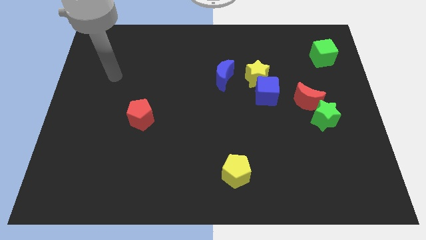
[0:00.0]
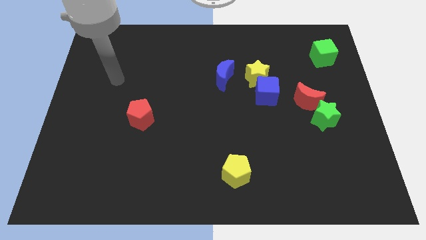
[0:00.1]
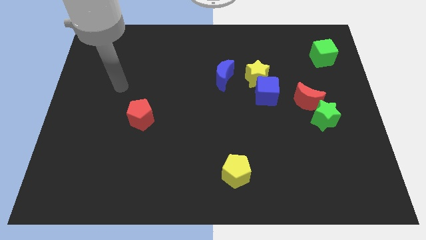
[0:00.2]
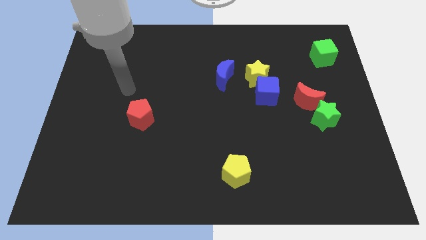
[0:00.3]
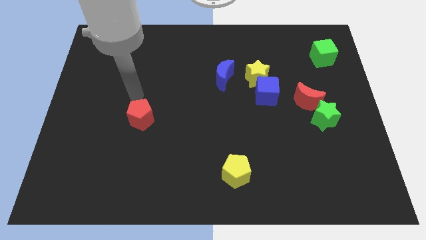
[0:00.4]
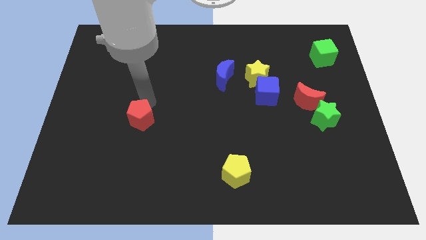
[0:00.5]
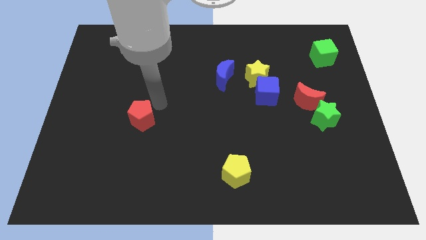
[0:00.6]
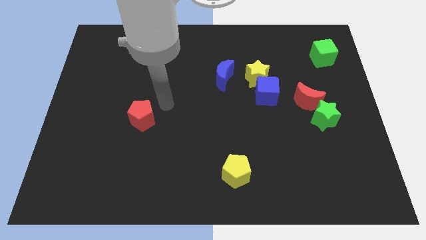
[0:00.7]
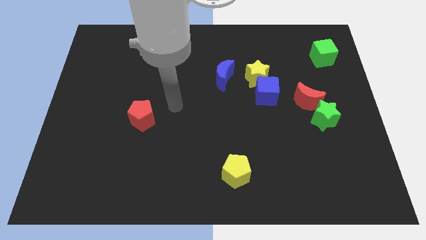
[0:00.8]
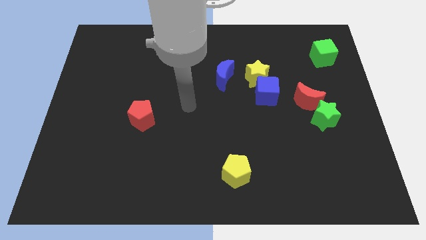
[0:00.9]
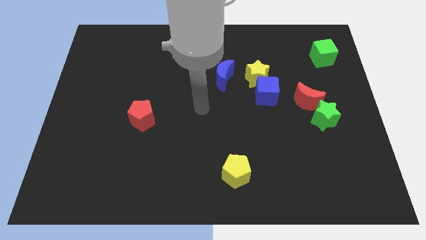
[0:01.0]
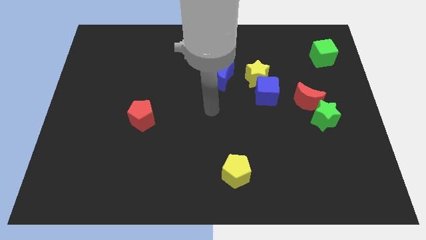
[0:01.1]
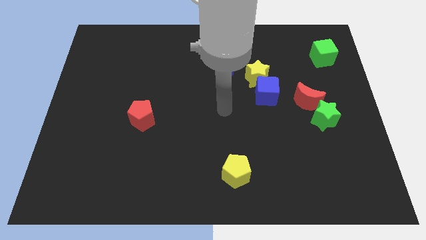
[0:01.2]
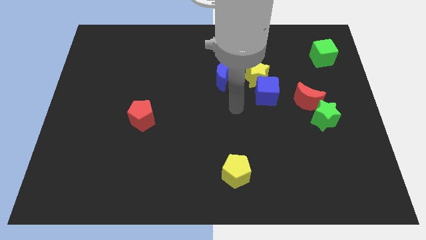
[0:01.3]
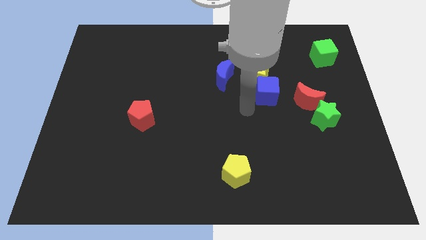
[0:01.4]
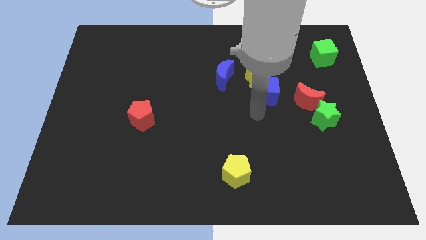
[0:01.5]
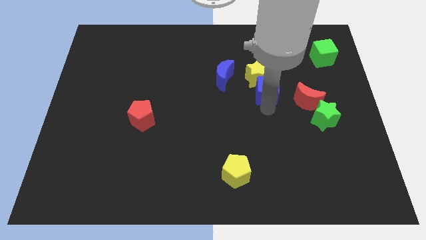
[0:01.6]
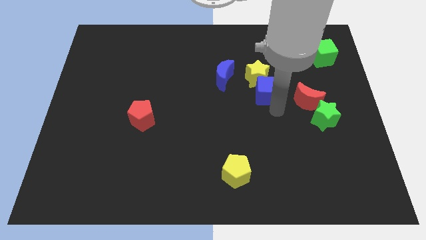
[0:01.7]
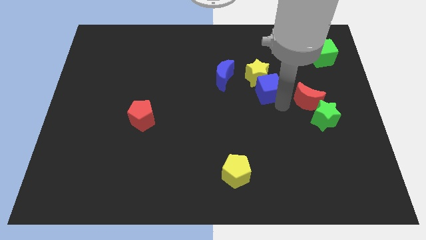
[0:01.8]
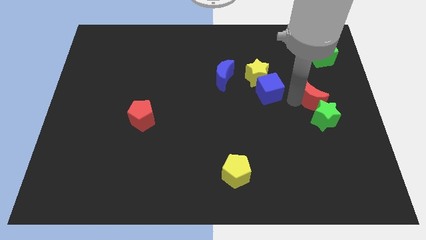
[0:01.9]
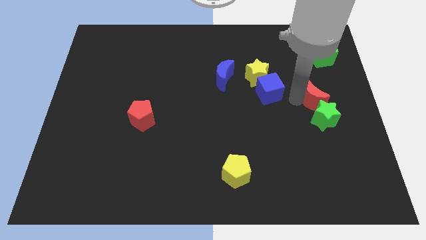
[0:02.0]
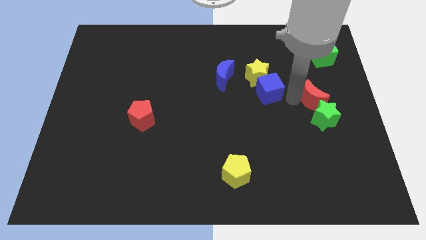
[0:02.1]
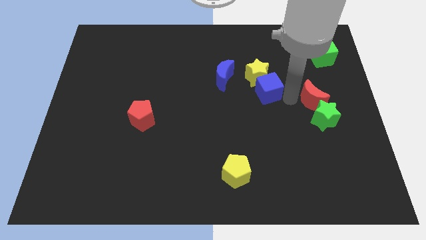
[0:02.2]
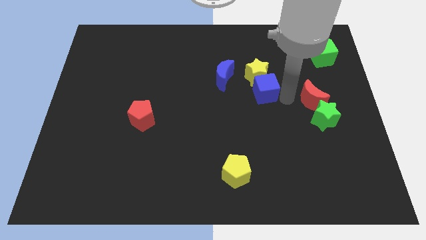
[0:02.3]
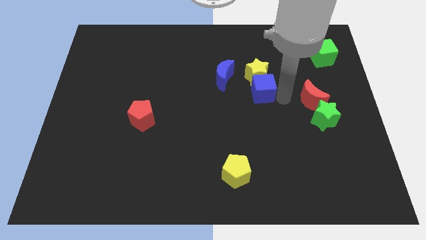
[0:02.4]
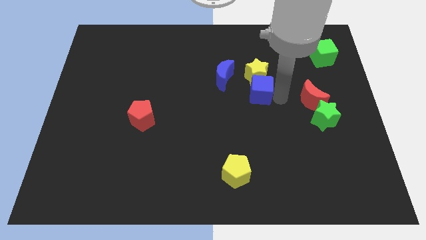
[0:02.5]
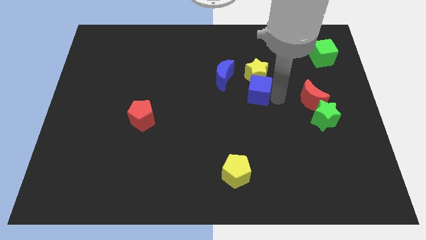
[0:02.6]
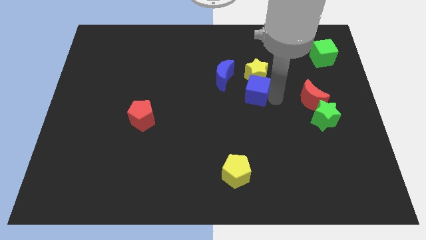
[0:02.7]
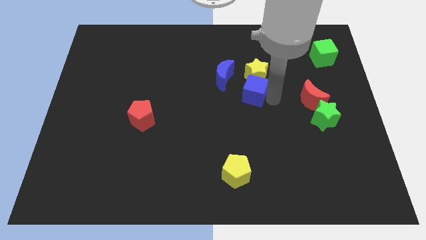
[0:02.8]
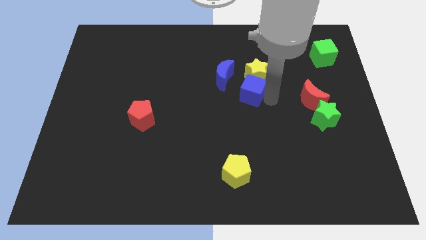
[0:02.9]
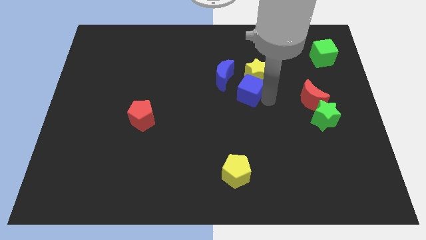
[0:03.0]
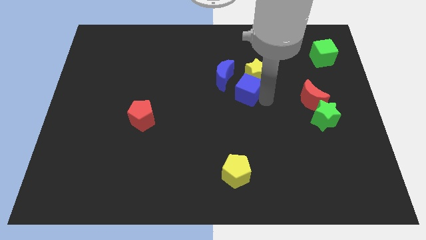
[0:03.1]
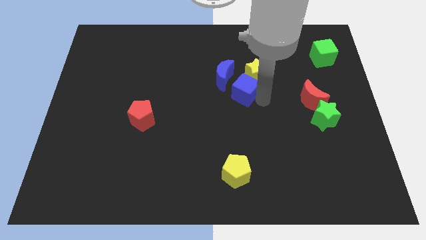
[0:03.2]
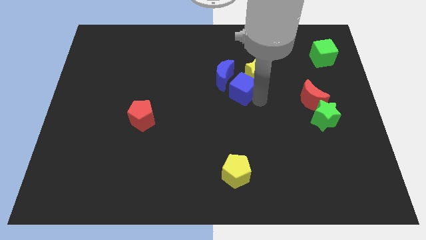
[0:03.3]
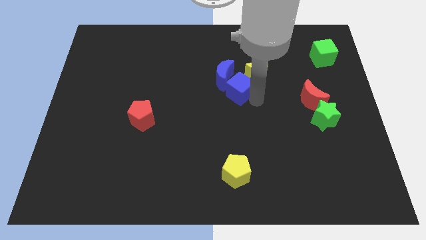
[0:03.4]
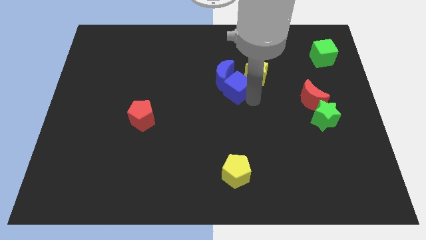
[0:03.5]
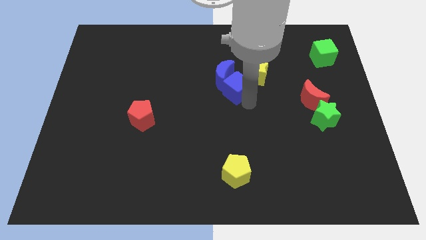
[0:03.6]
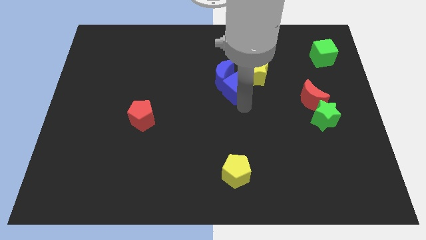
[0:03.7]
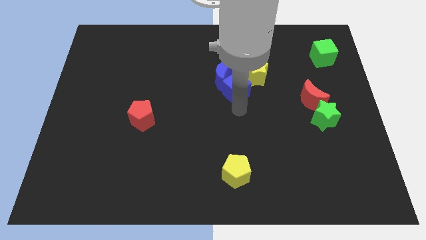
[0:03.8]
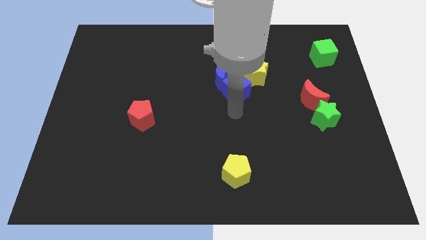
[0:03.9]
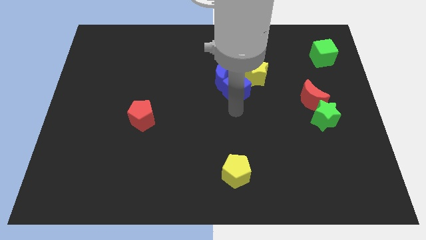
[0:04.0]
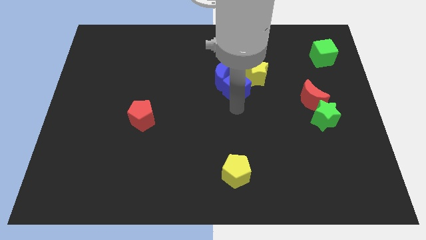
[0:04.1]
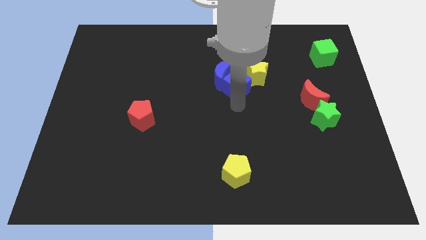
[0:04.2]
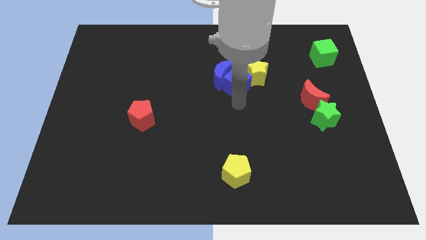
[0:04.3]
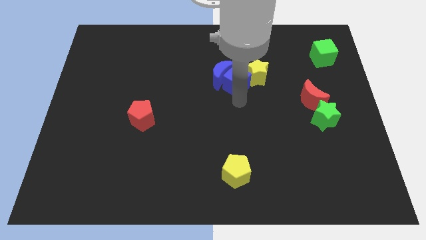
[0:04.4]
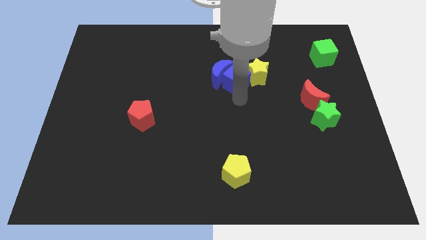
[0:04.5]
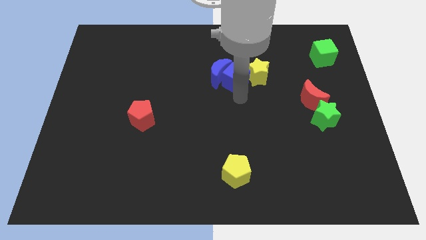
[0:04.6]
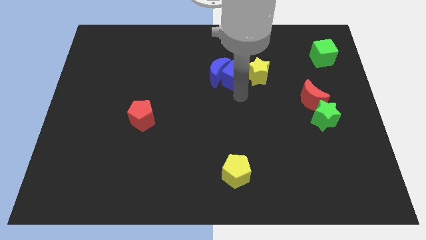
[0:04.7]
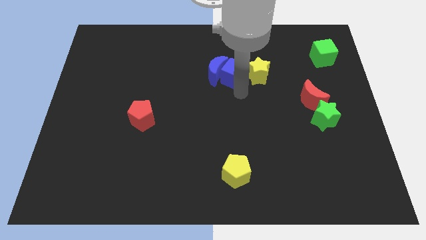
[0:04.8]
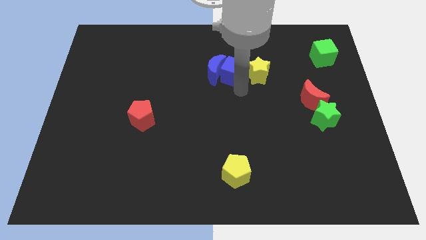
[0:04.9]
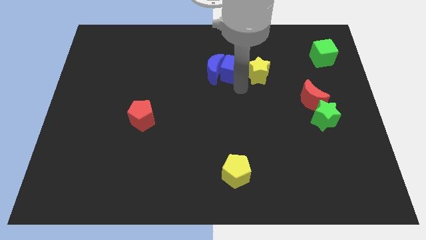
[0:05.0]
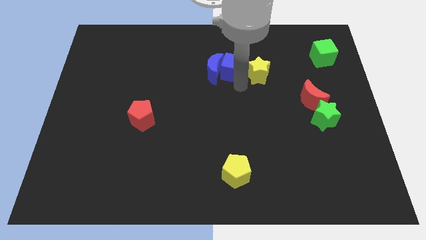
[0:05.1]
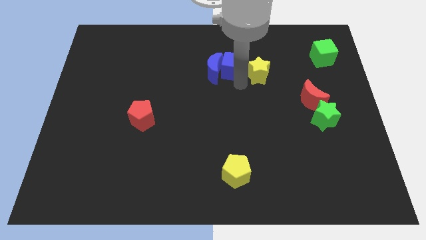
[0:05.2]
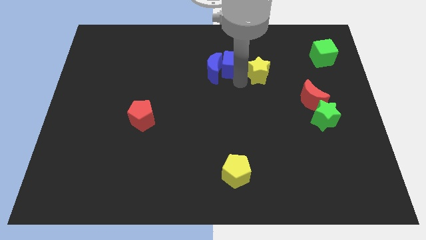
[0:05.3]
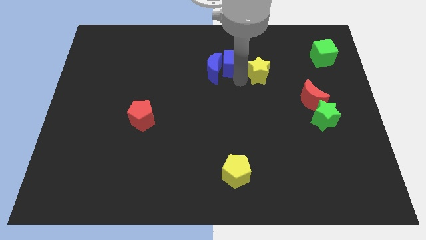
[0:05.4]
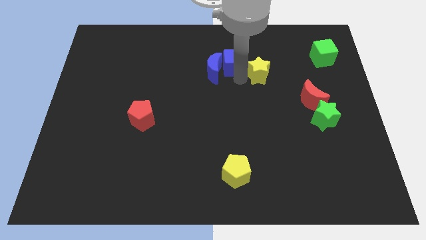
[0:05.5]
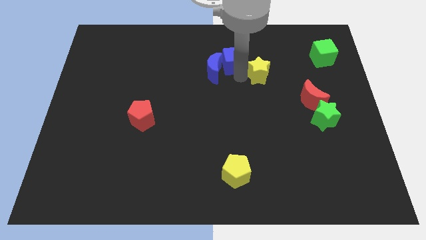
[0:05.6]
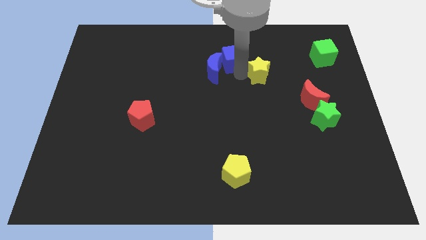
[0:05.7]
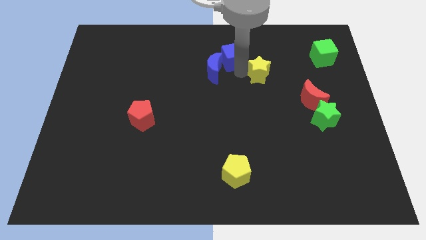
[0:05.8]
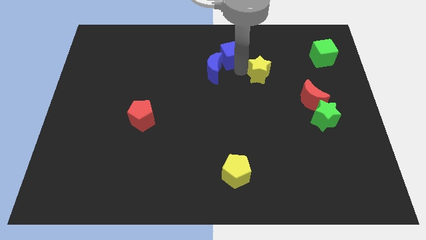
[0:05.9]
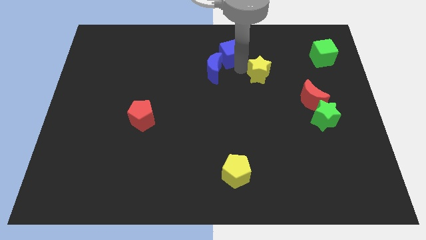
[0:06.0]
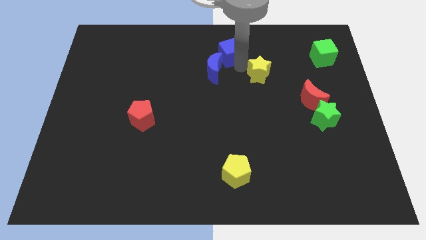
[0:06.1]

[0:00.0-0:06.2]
move the blue cube to the top side
